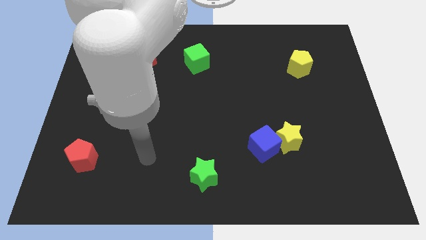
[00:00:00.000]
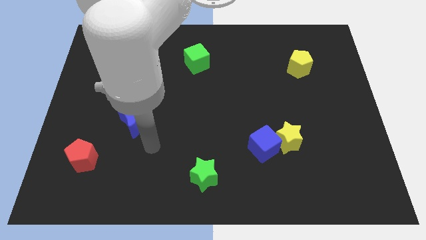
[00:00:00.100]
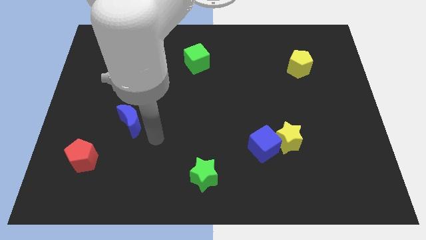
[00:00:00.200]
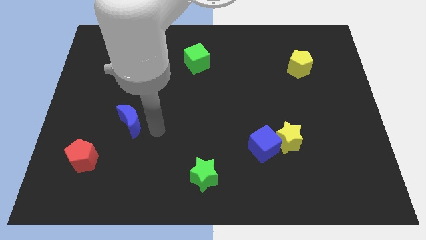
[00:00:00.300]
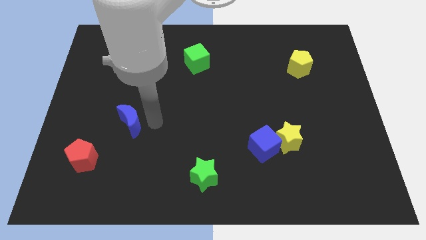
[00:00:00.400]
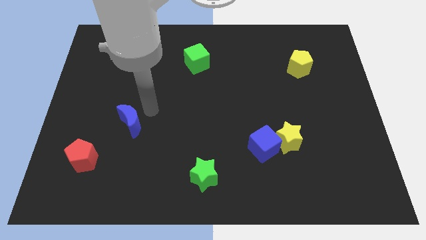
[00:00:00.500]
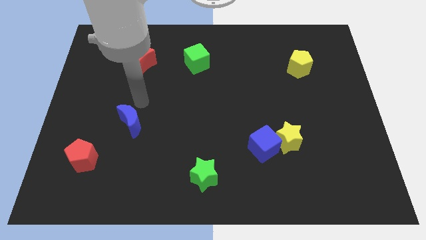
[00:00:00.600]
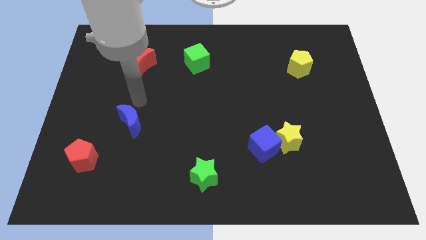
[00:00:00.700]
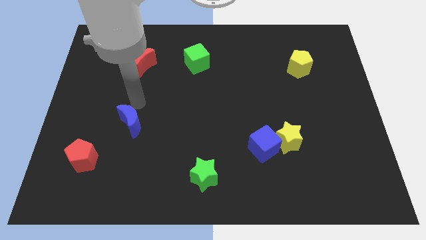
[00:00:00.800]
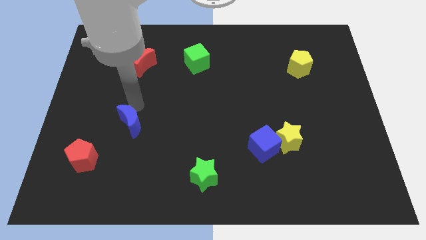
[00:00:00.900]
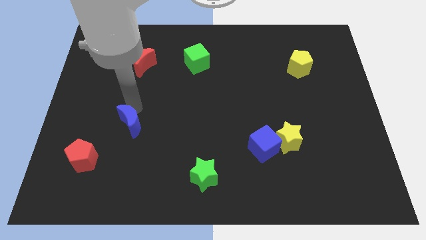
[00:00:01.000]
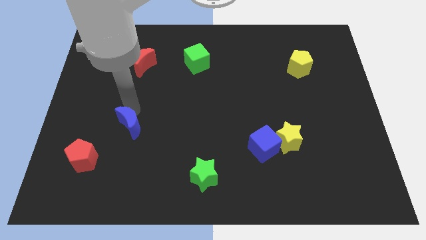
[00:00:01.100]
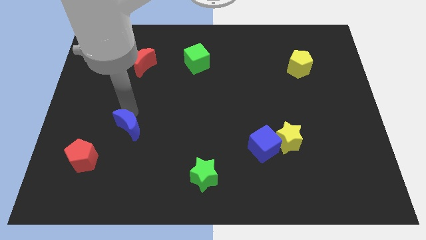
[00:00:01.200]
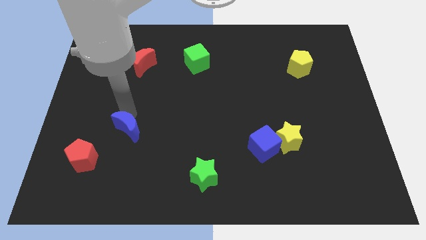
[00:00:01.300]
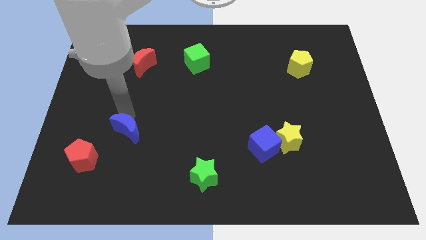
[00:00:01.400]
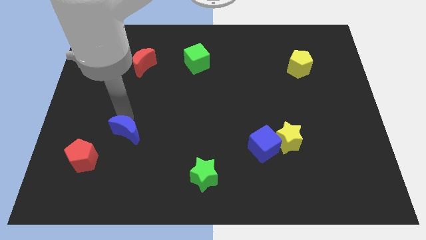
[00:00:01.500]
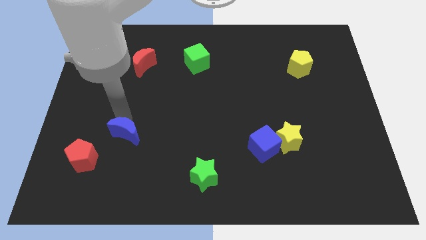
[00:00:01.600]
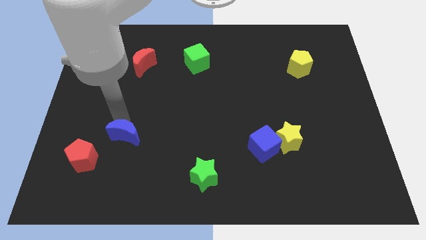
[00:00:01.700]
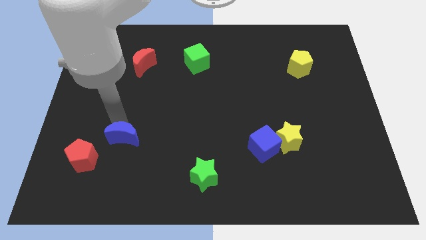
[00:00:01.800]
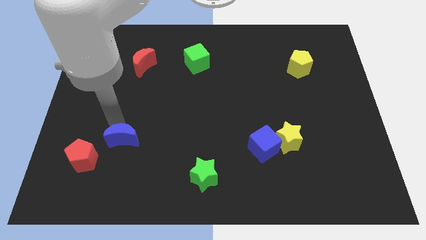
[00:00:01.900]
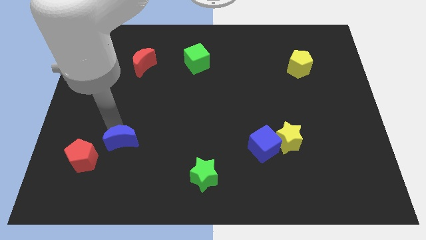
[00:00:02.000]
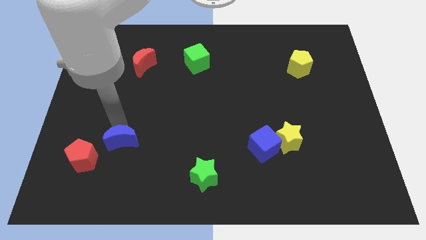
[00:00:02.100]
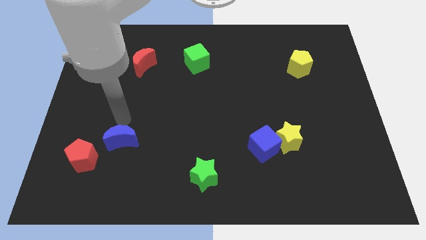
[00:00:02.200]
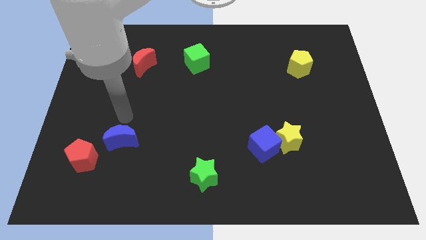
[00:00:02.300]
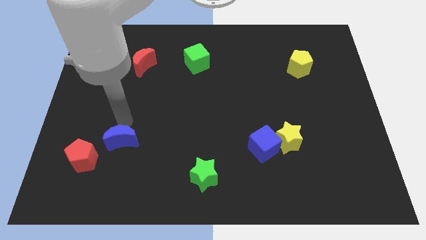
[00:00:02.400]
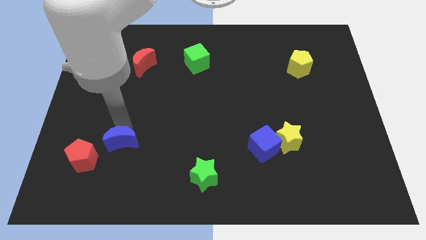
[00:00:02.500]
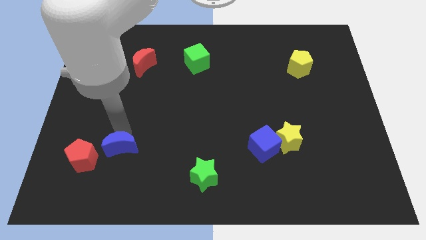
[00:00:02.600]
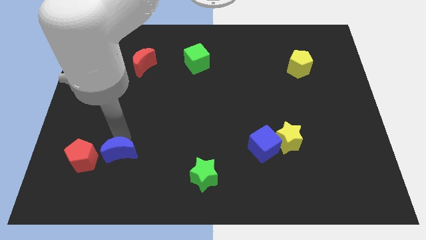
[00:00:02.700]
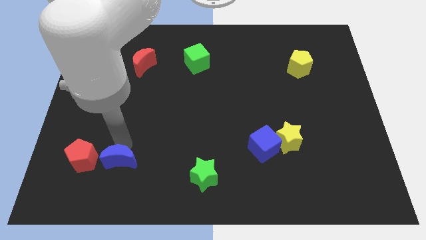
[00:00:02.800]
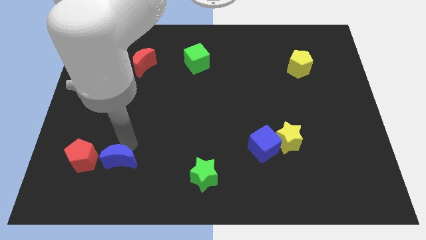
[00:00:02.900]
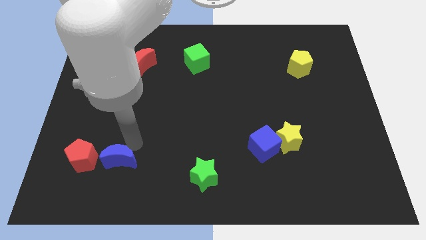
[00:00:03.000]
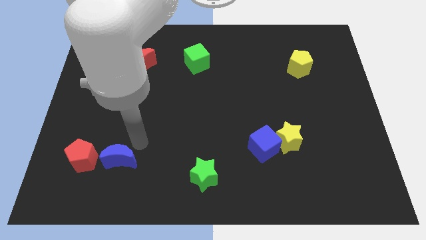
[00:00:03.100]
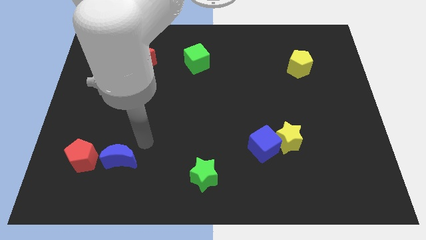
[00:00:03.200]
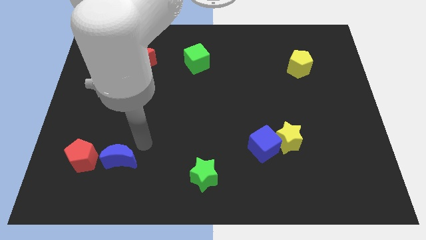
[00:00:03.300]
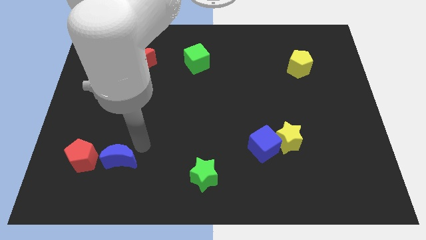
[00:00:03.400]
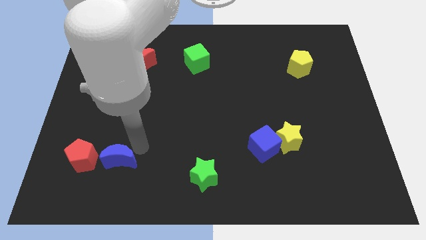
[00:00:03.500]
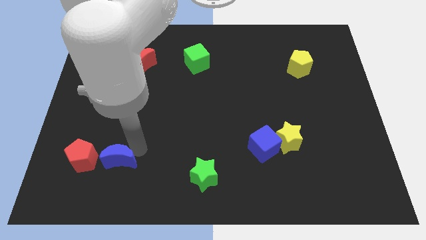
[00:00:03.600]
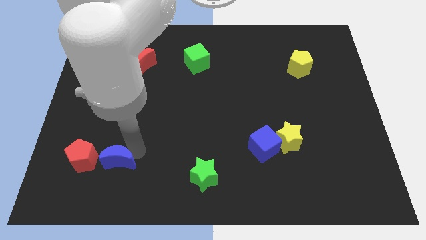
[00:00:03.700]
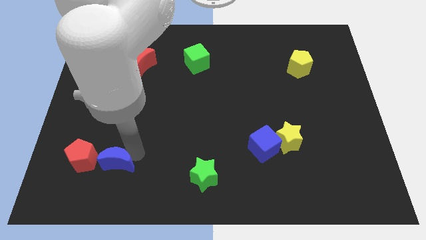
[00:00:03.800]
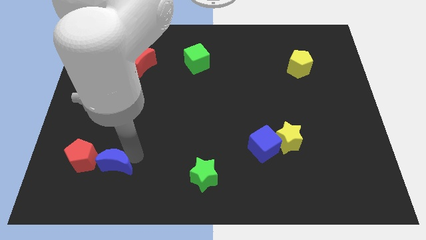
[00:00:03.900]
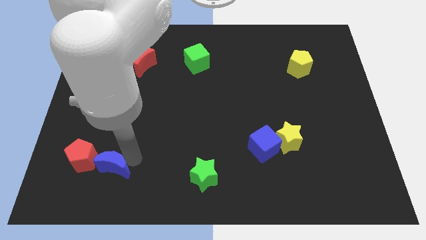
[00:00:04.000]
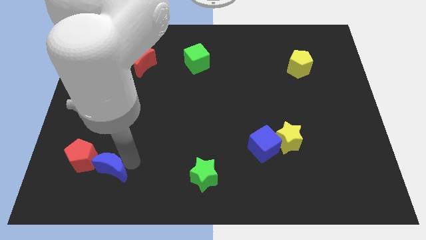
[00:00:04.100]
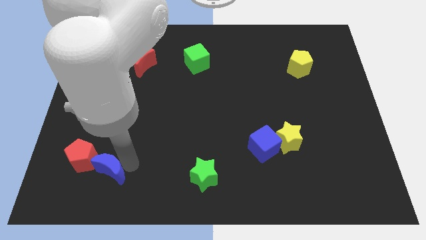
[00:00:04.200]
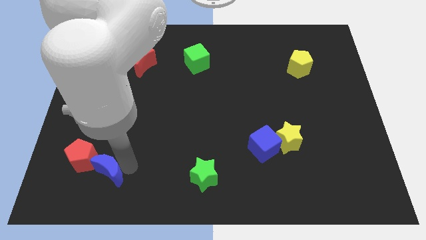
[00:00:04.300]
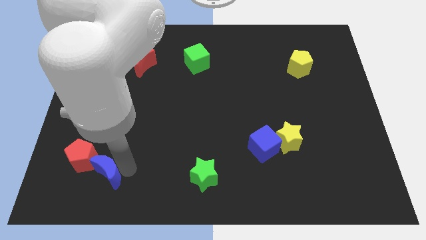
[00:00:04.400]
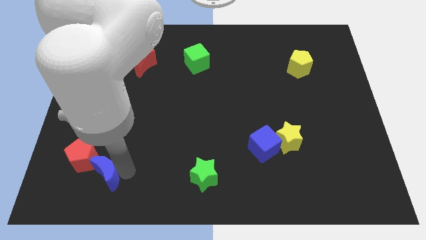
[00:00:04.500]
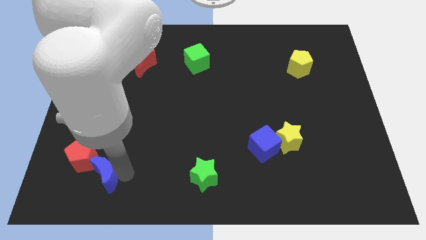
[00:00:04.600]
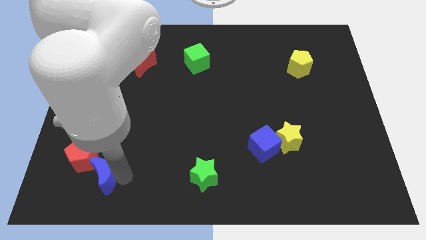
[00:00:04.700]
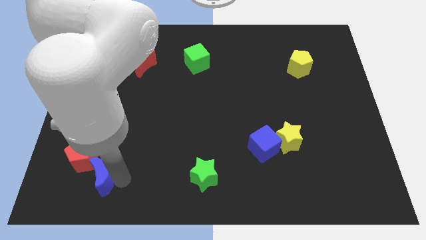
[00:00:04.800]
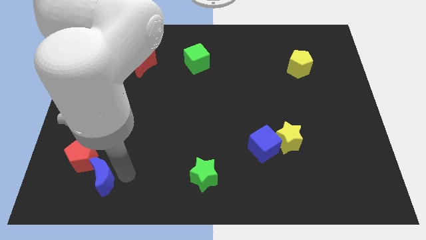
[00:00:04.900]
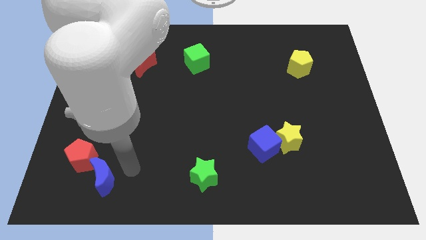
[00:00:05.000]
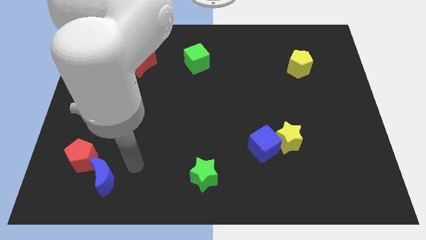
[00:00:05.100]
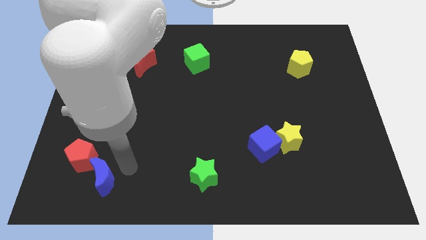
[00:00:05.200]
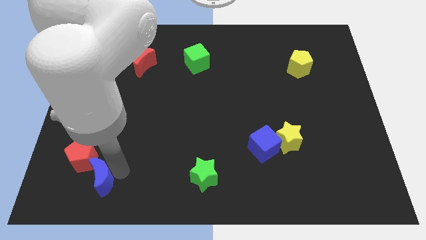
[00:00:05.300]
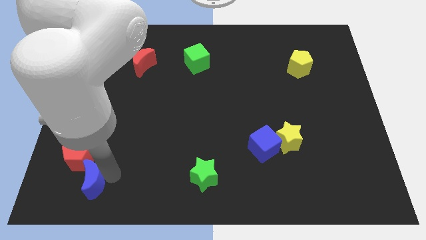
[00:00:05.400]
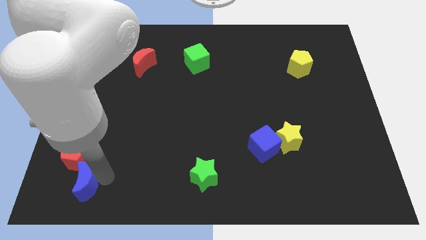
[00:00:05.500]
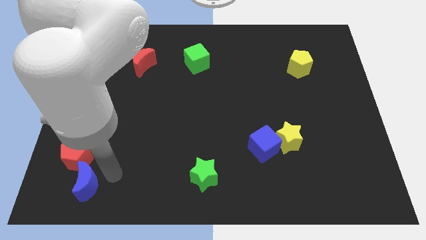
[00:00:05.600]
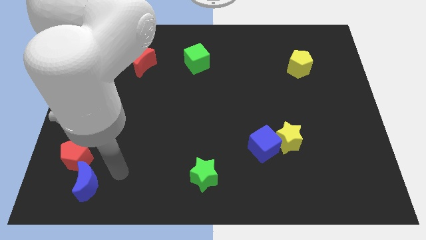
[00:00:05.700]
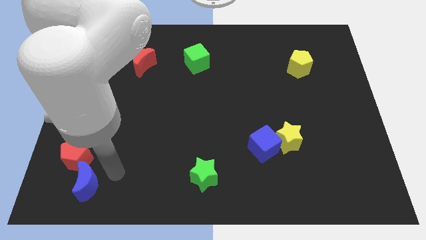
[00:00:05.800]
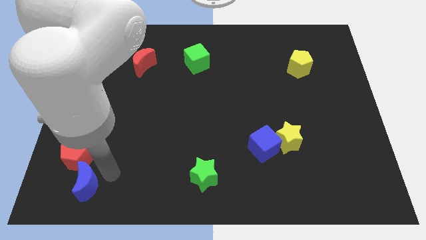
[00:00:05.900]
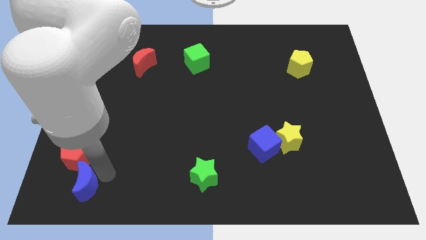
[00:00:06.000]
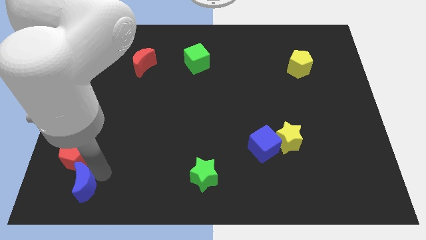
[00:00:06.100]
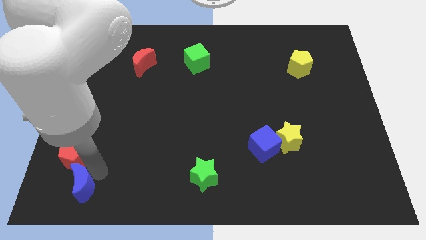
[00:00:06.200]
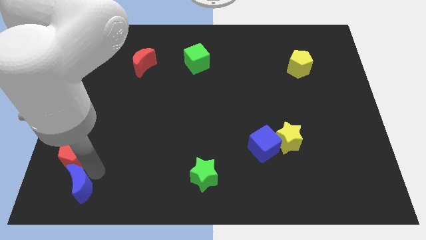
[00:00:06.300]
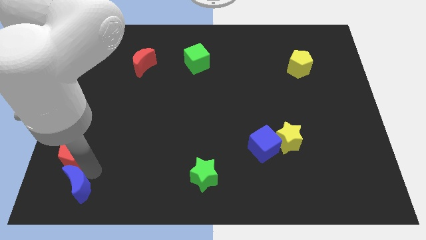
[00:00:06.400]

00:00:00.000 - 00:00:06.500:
move the blue moon to the bottom left of the board
